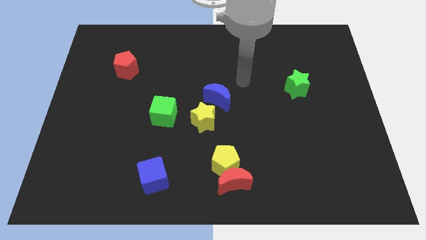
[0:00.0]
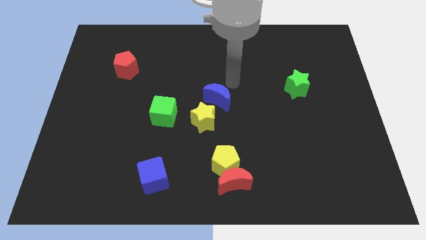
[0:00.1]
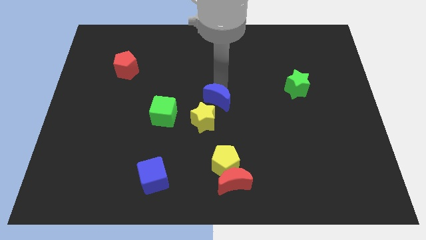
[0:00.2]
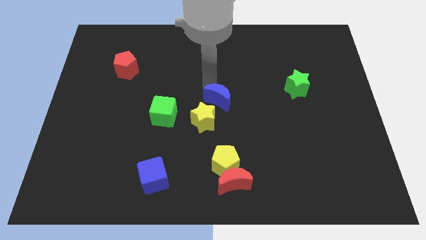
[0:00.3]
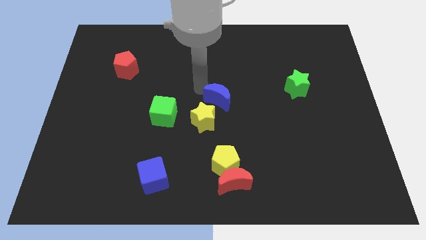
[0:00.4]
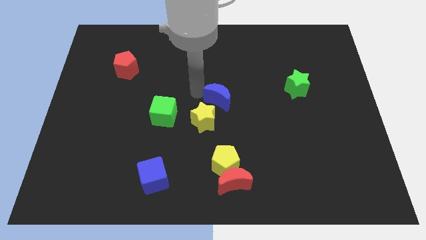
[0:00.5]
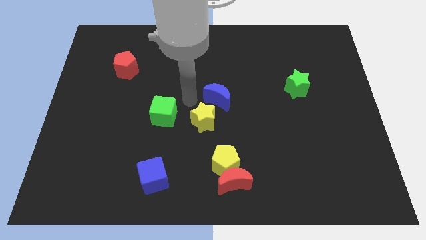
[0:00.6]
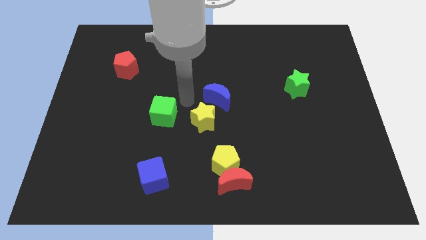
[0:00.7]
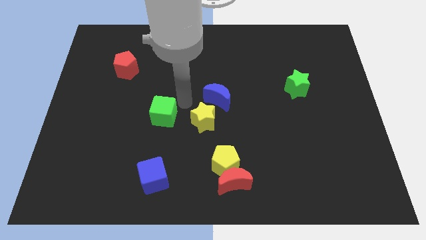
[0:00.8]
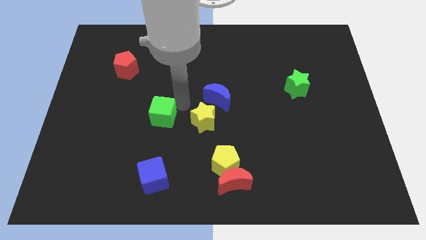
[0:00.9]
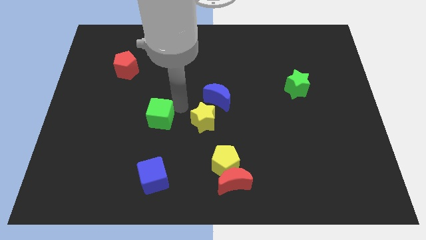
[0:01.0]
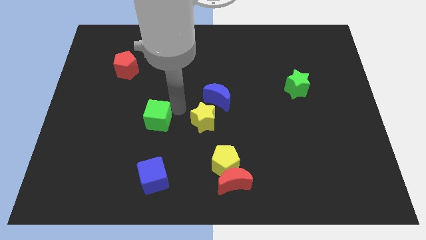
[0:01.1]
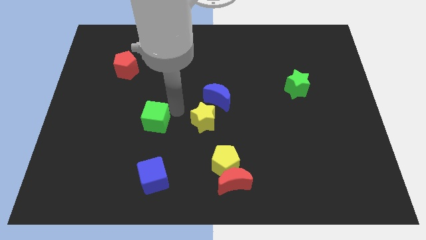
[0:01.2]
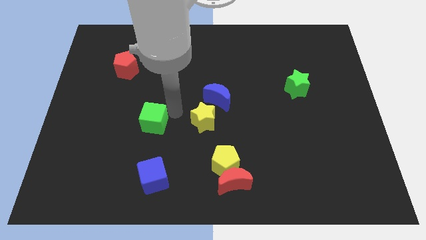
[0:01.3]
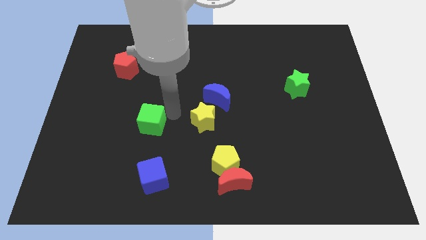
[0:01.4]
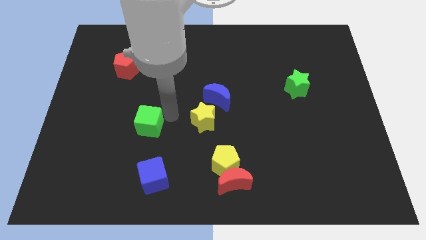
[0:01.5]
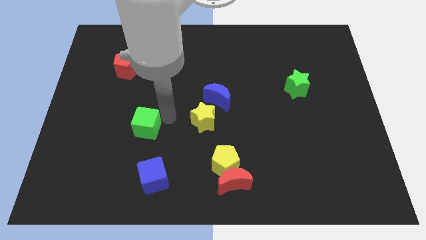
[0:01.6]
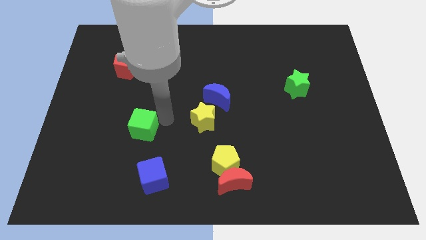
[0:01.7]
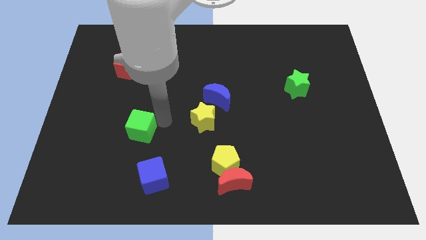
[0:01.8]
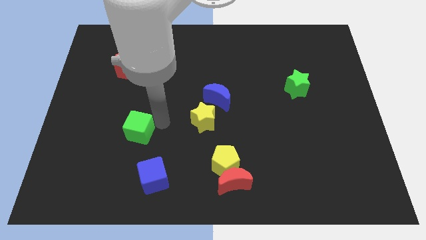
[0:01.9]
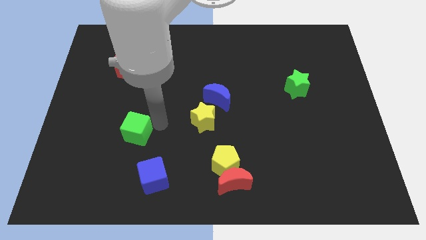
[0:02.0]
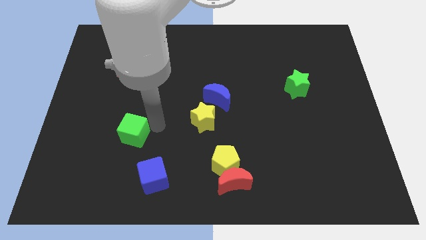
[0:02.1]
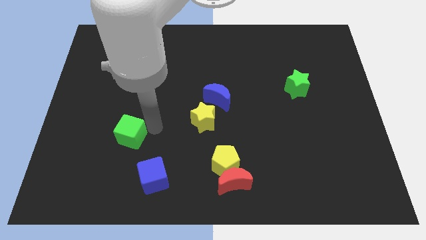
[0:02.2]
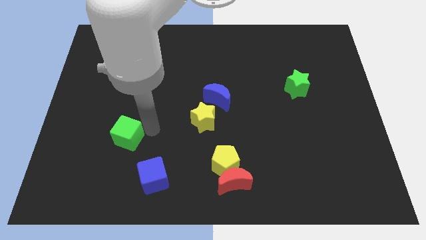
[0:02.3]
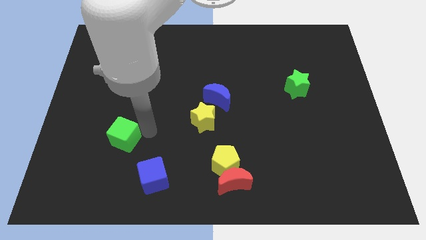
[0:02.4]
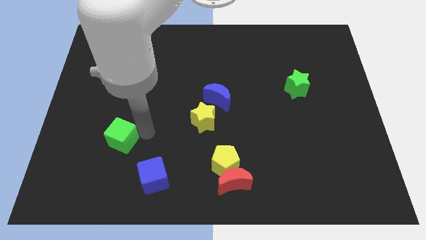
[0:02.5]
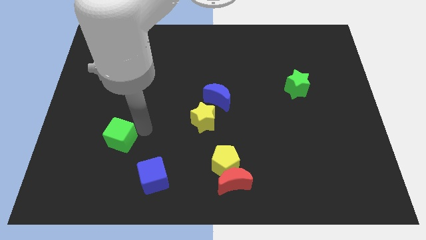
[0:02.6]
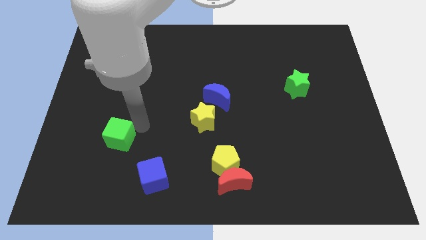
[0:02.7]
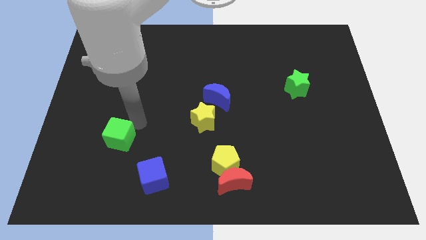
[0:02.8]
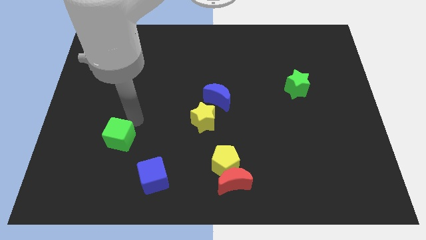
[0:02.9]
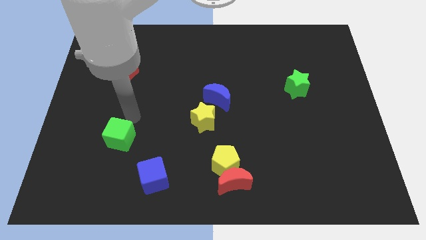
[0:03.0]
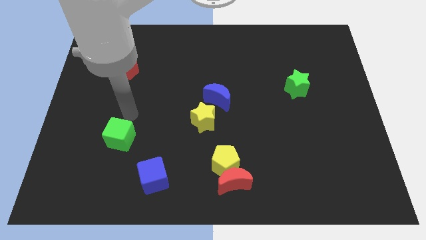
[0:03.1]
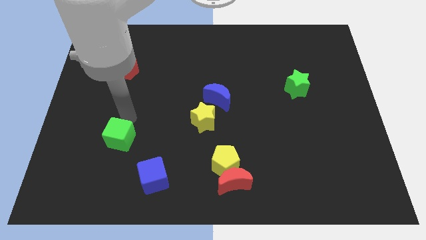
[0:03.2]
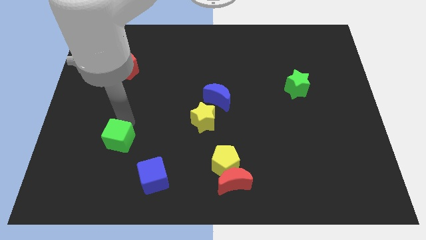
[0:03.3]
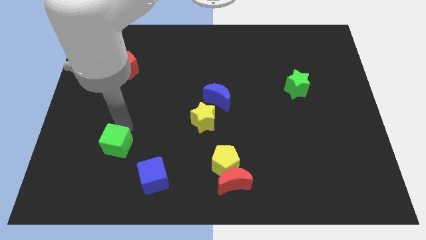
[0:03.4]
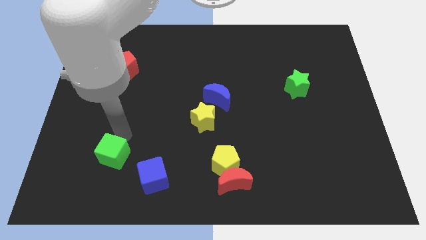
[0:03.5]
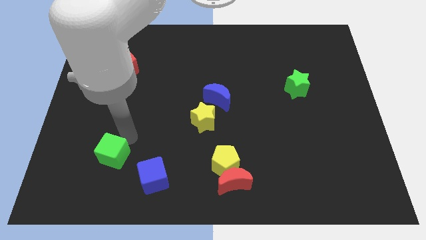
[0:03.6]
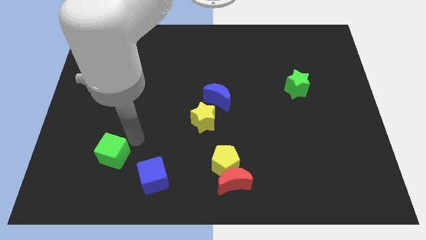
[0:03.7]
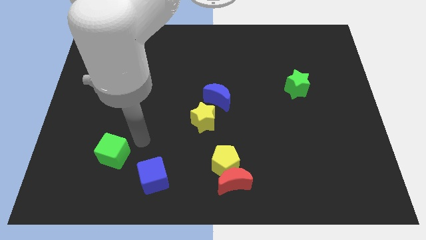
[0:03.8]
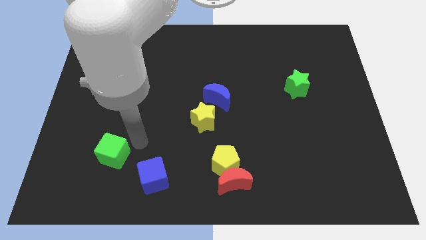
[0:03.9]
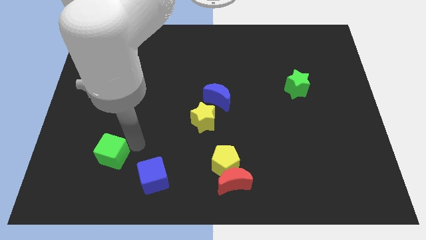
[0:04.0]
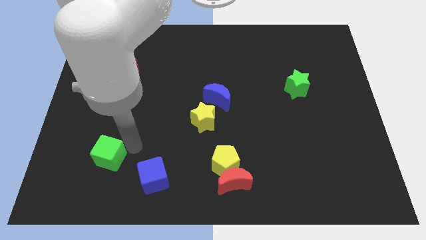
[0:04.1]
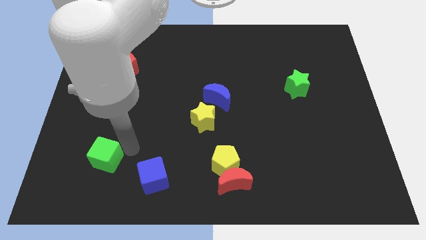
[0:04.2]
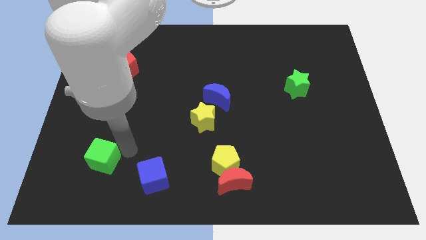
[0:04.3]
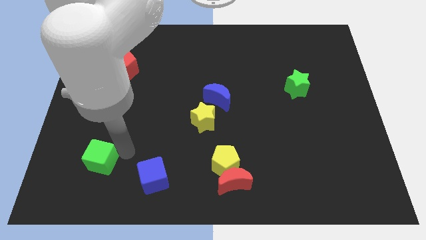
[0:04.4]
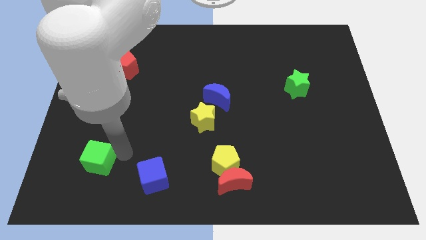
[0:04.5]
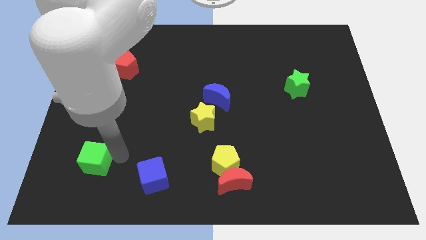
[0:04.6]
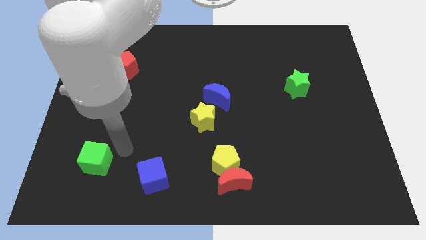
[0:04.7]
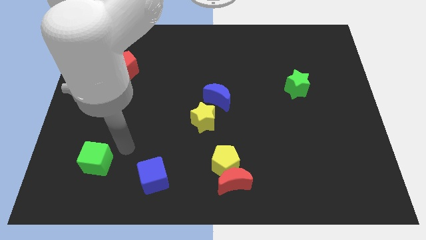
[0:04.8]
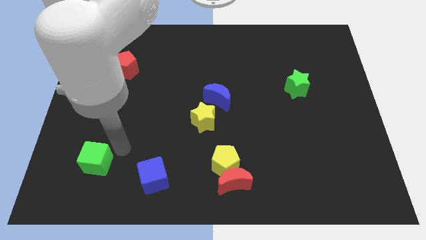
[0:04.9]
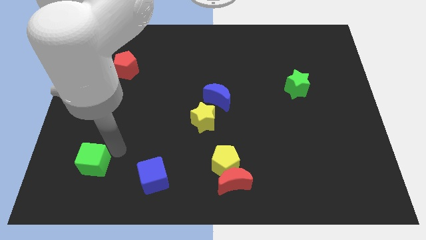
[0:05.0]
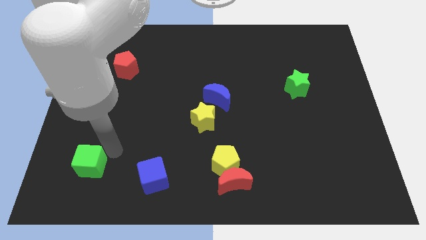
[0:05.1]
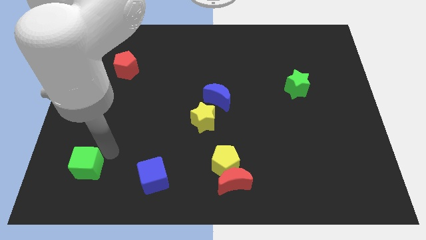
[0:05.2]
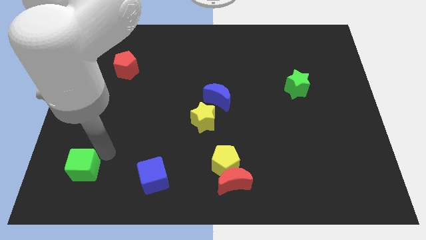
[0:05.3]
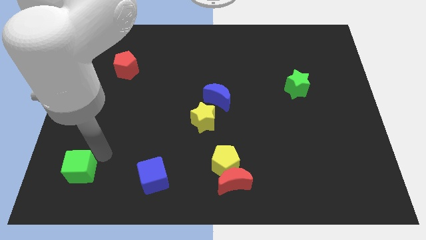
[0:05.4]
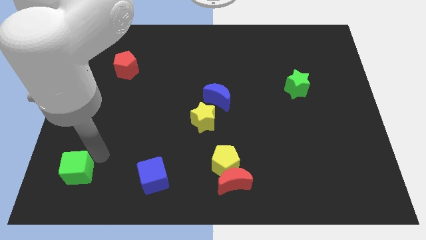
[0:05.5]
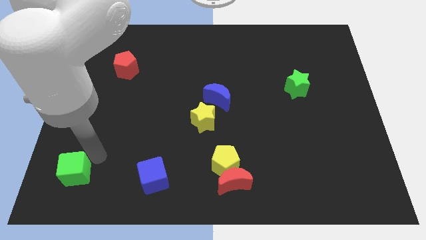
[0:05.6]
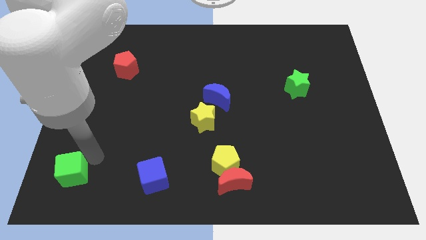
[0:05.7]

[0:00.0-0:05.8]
move the green cube to the bottom left corner

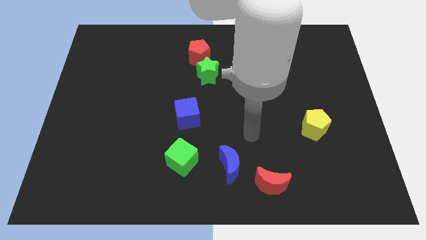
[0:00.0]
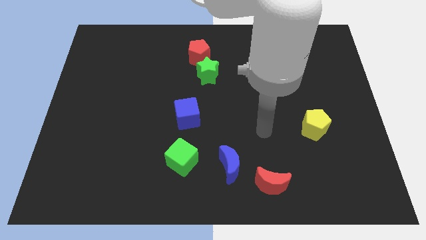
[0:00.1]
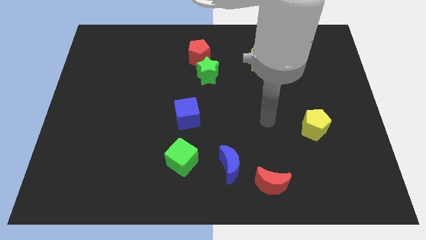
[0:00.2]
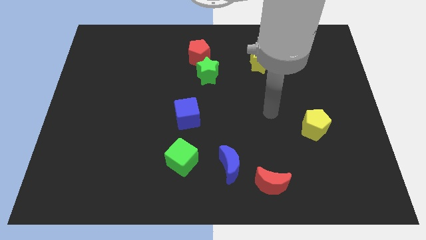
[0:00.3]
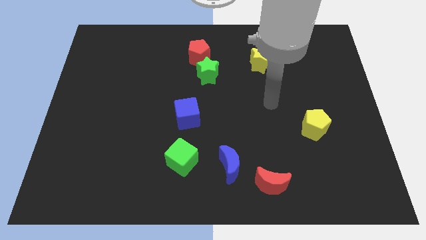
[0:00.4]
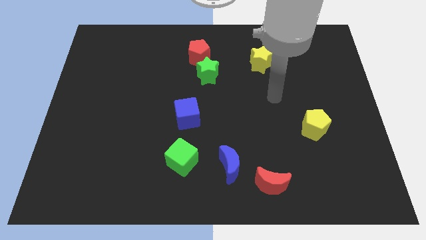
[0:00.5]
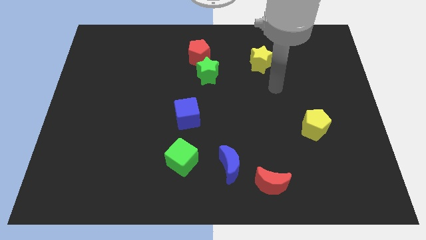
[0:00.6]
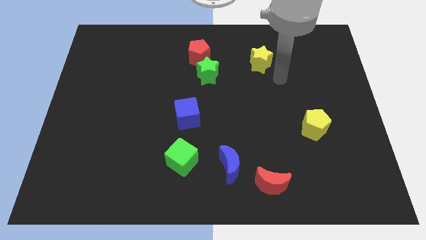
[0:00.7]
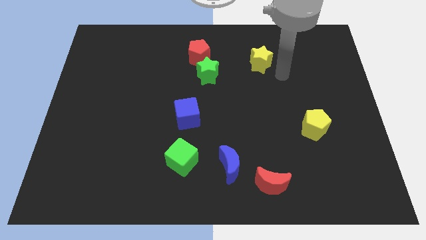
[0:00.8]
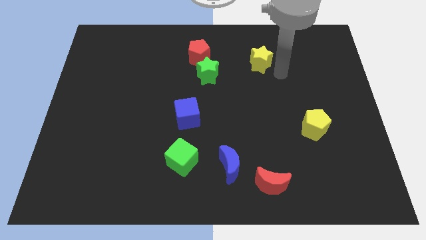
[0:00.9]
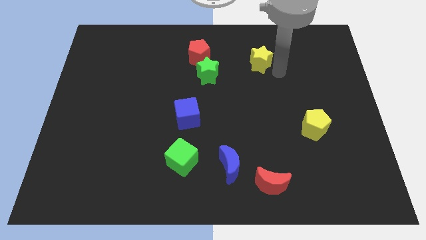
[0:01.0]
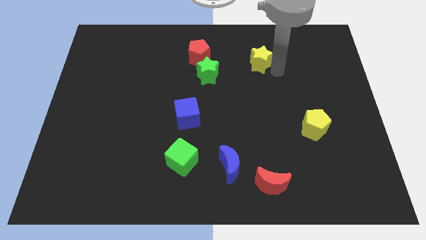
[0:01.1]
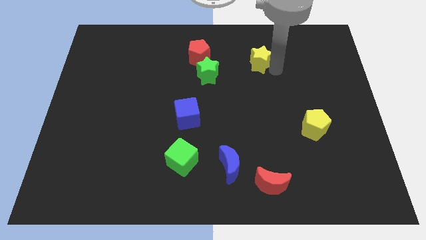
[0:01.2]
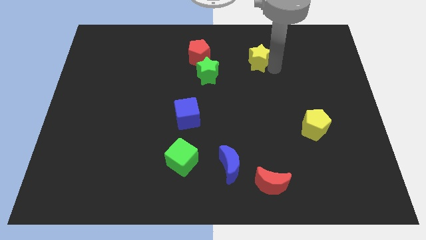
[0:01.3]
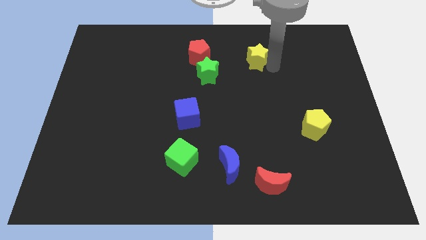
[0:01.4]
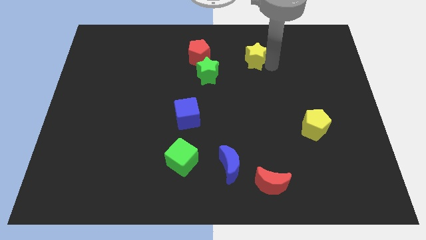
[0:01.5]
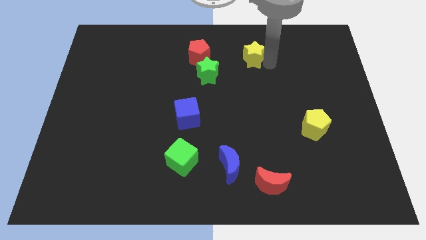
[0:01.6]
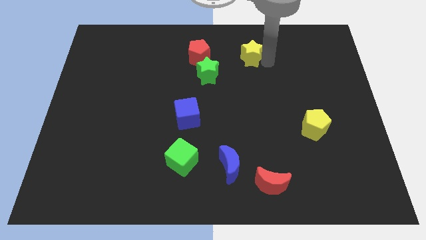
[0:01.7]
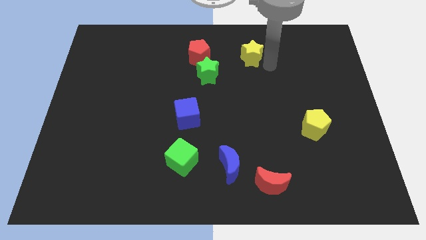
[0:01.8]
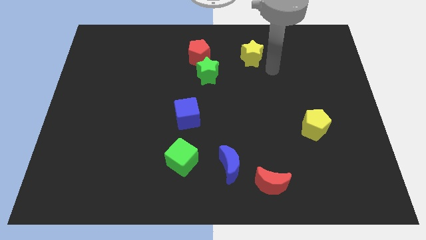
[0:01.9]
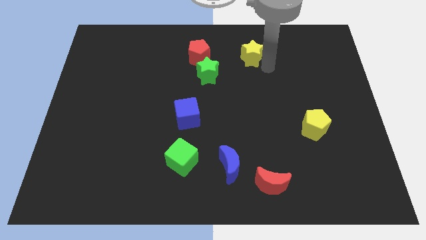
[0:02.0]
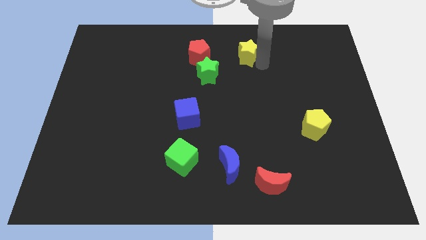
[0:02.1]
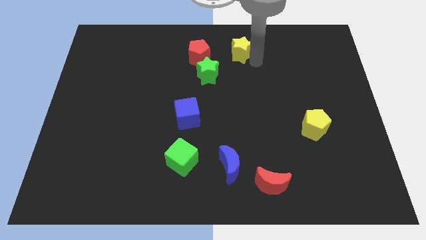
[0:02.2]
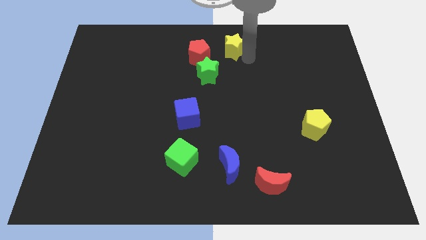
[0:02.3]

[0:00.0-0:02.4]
push the yellow star to the top
